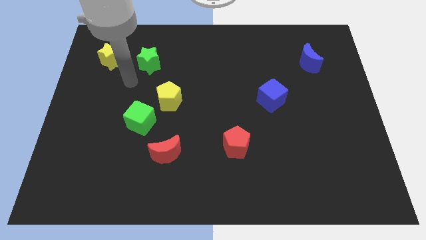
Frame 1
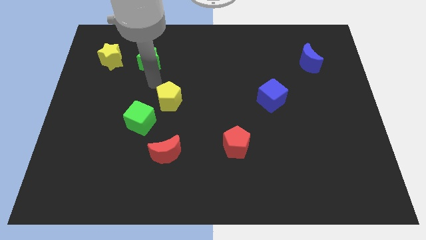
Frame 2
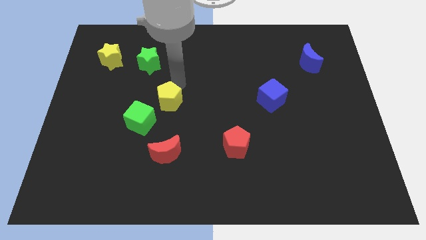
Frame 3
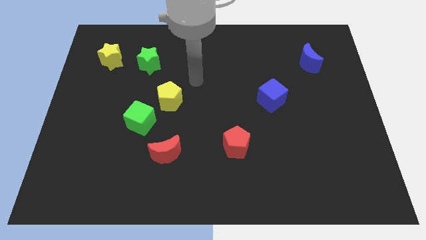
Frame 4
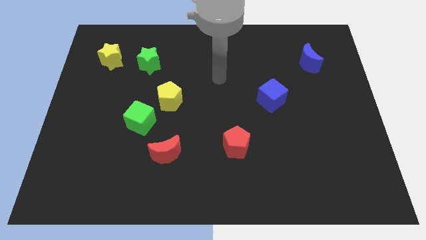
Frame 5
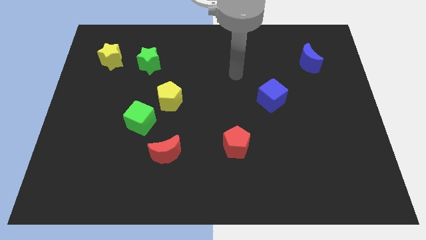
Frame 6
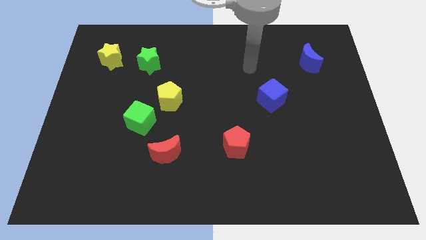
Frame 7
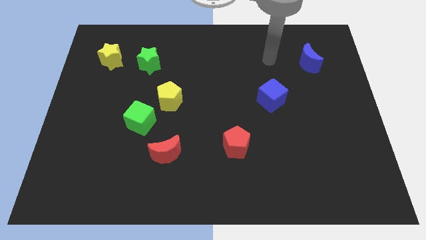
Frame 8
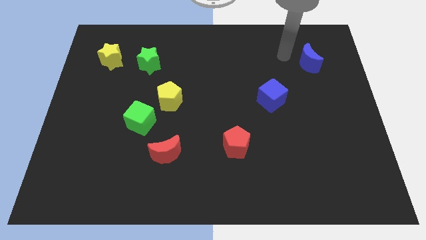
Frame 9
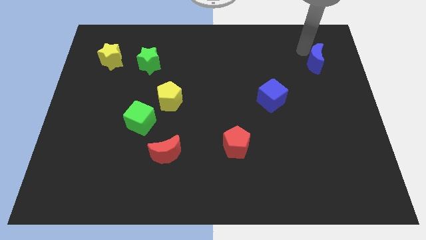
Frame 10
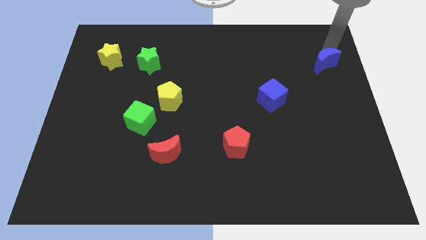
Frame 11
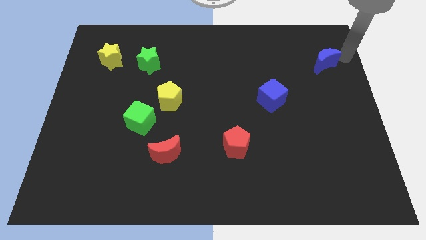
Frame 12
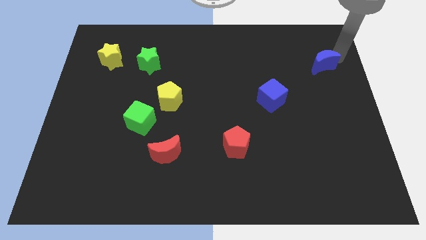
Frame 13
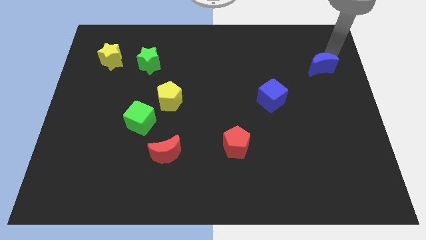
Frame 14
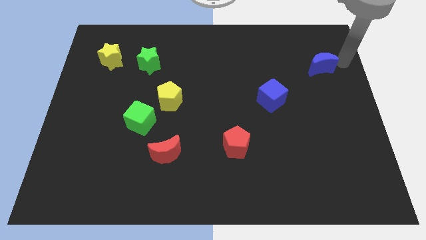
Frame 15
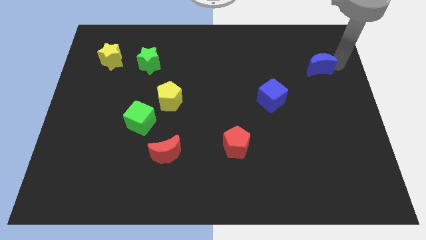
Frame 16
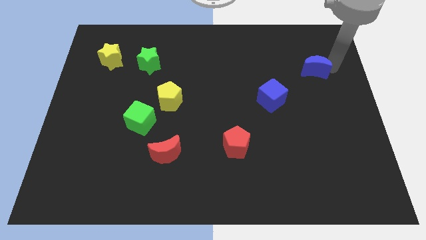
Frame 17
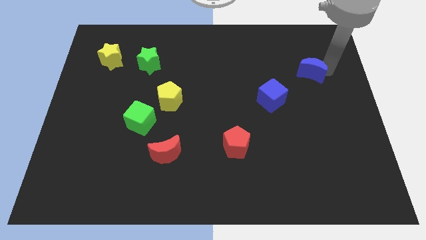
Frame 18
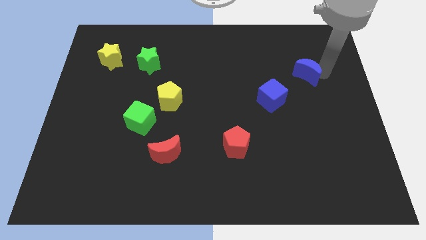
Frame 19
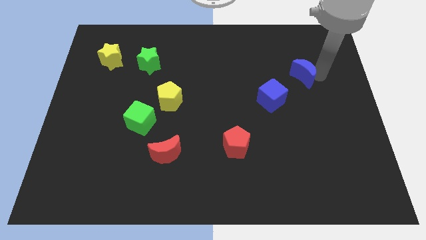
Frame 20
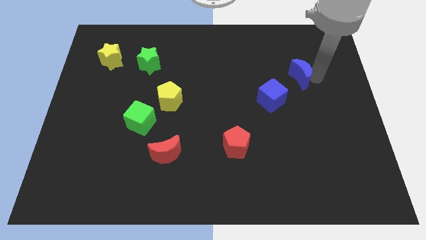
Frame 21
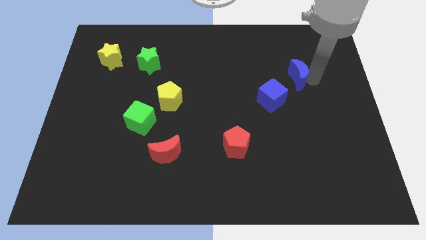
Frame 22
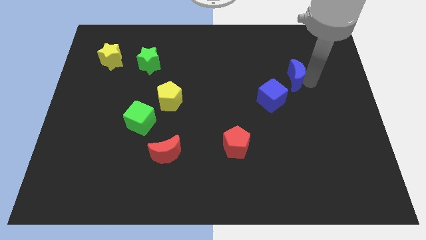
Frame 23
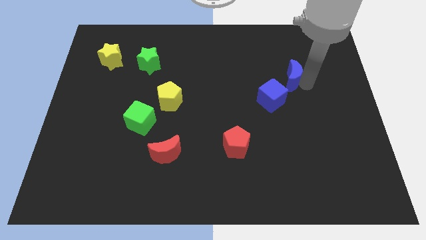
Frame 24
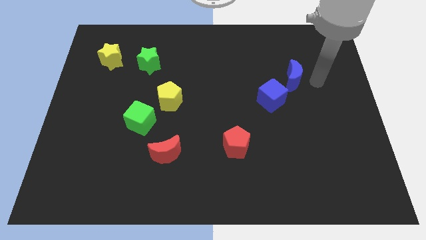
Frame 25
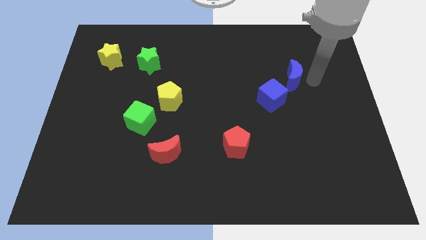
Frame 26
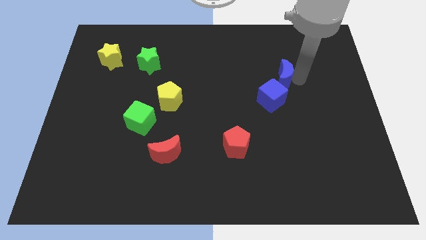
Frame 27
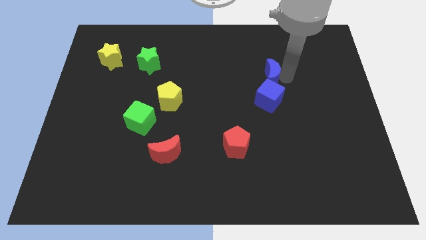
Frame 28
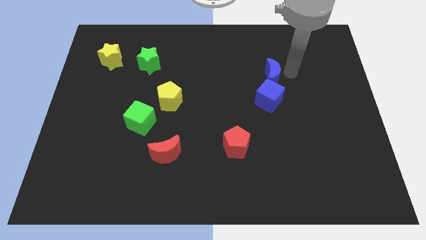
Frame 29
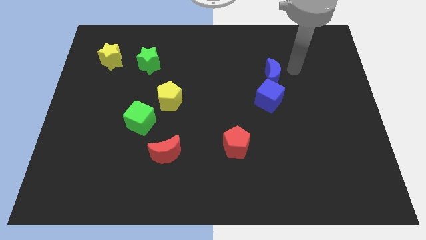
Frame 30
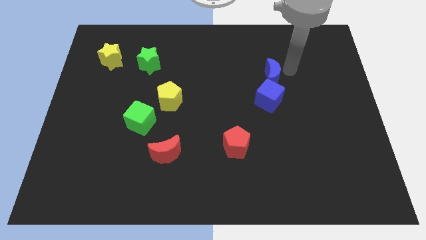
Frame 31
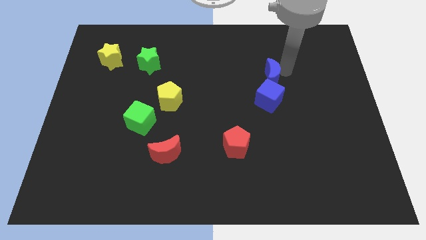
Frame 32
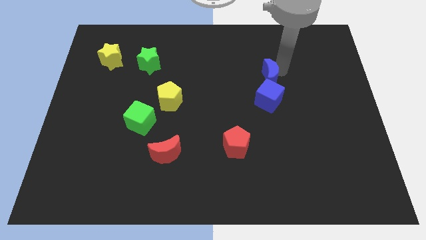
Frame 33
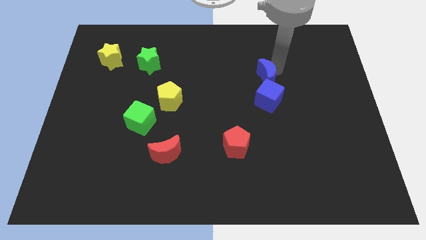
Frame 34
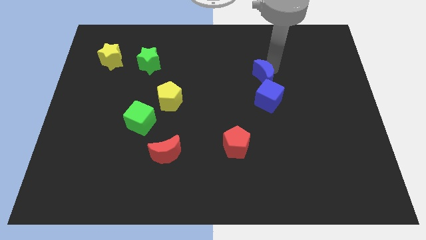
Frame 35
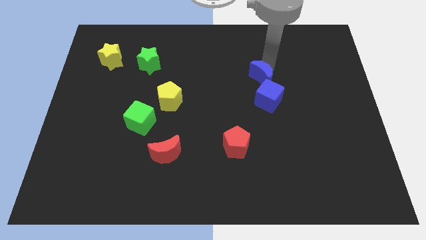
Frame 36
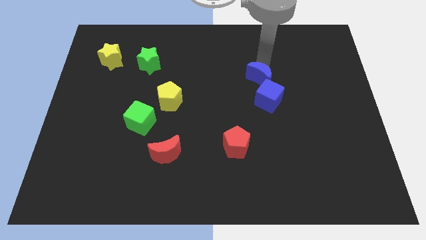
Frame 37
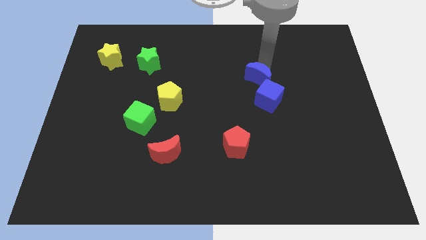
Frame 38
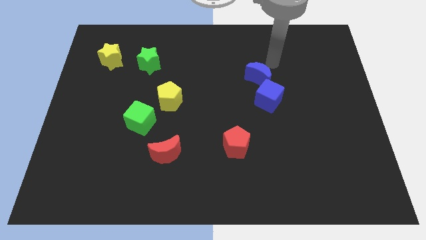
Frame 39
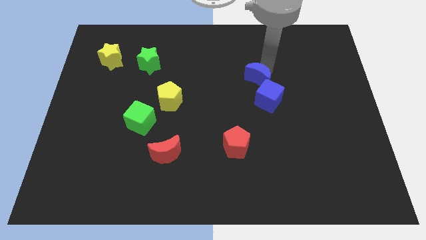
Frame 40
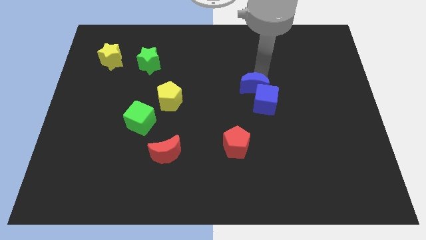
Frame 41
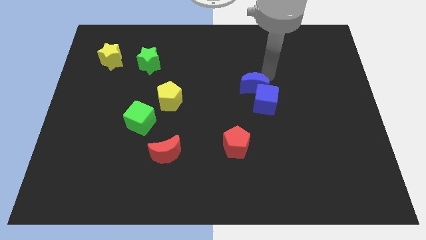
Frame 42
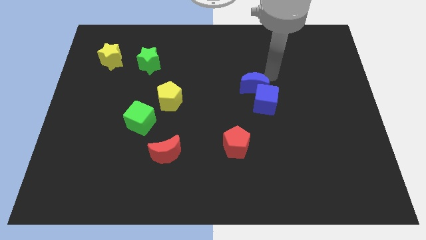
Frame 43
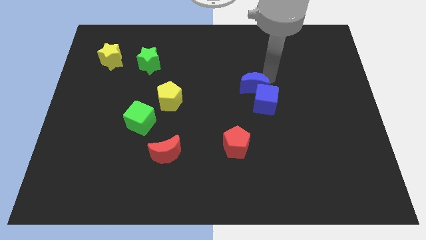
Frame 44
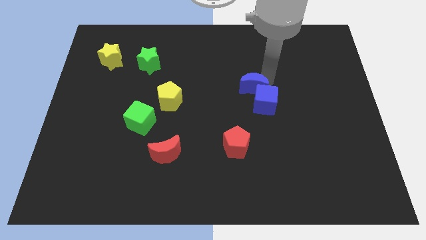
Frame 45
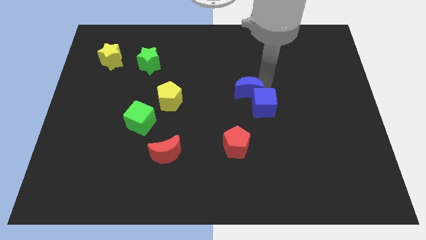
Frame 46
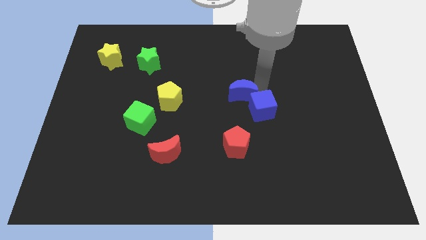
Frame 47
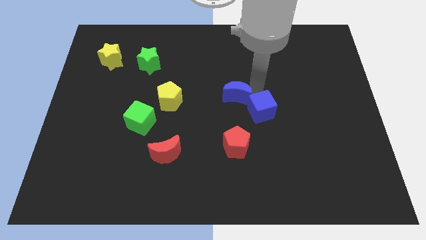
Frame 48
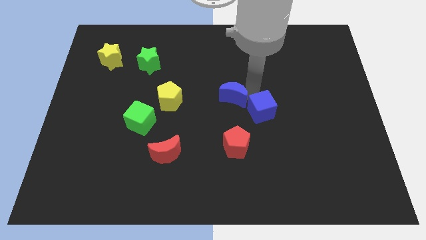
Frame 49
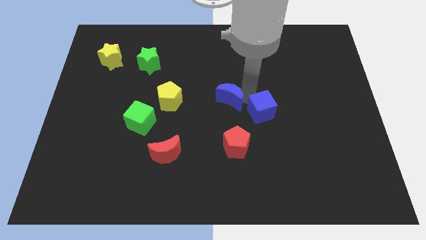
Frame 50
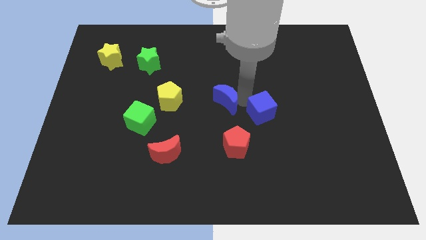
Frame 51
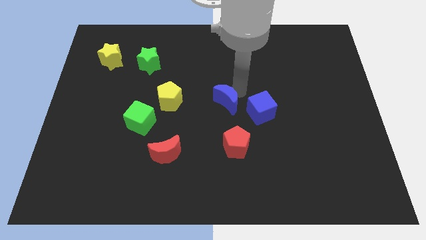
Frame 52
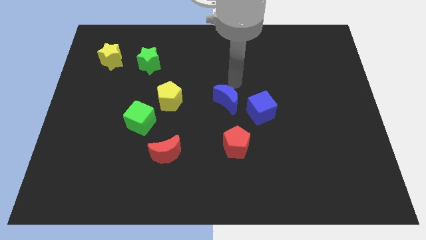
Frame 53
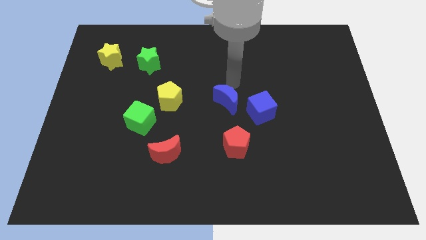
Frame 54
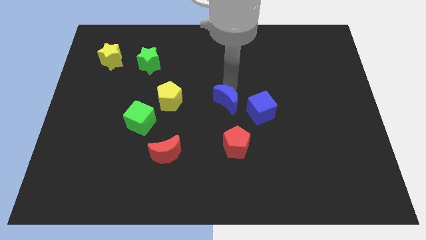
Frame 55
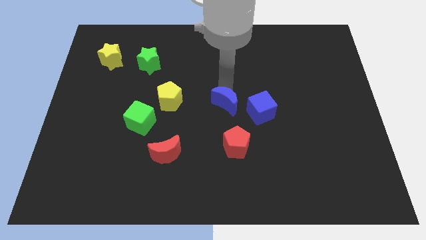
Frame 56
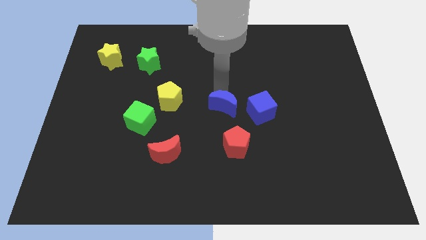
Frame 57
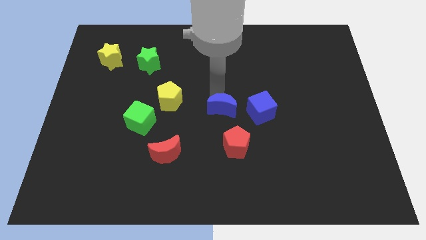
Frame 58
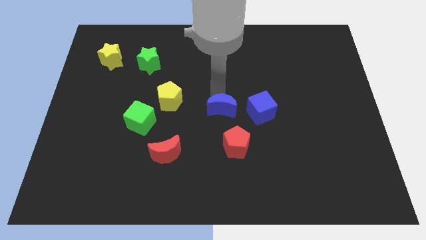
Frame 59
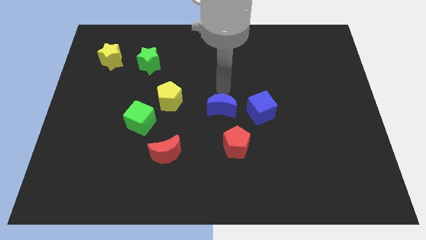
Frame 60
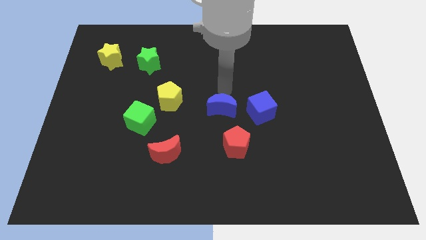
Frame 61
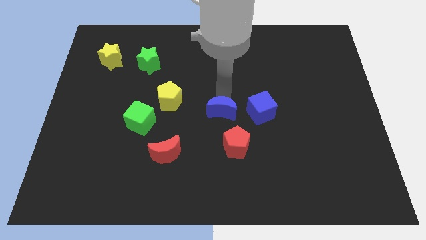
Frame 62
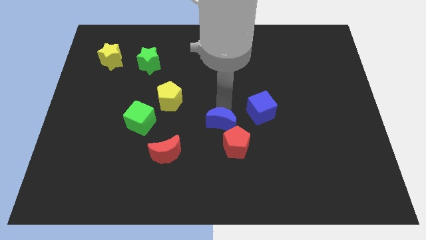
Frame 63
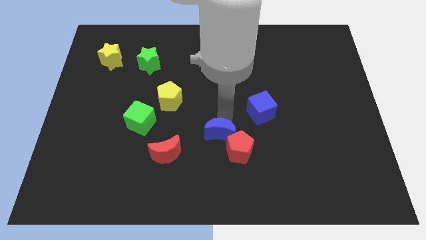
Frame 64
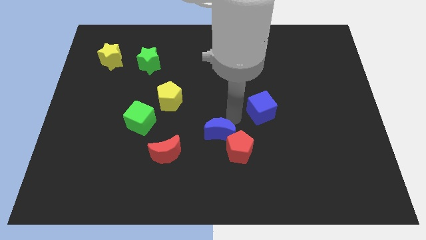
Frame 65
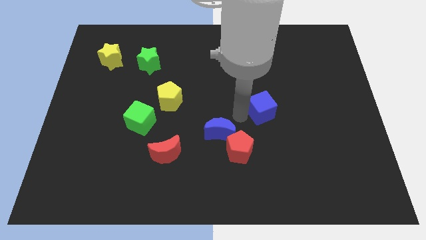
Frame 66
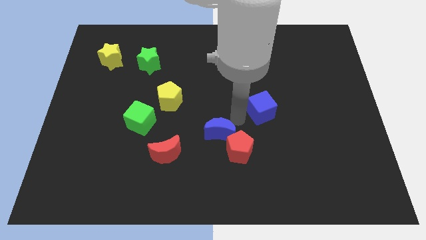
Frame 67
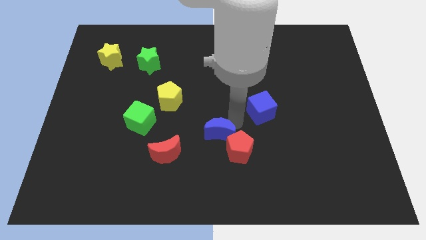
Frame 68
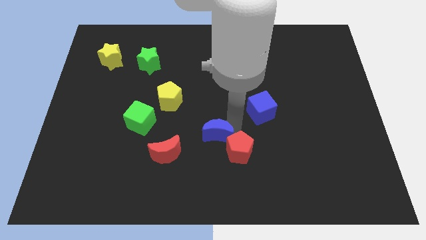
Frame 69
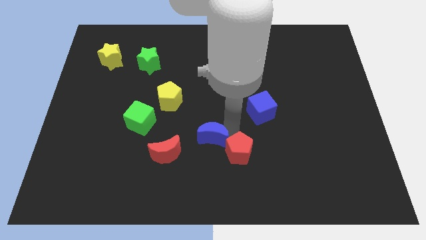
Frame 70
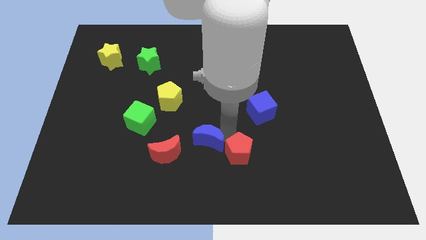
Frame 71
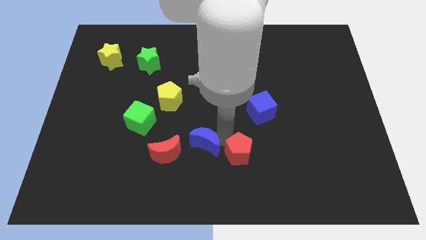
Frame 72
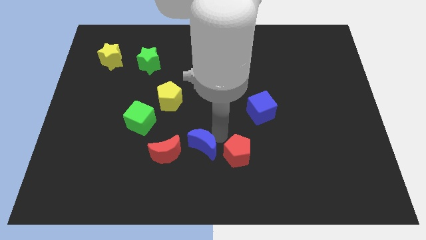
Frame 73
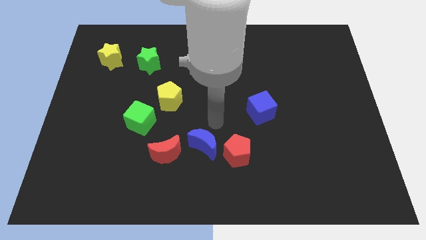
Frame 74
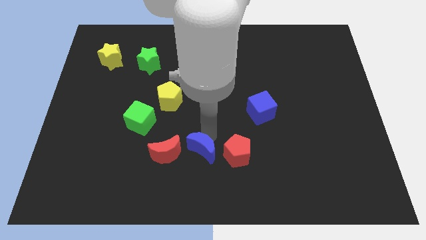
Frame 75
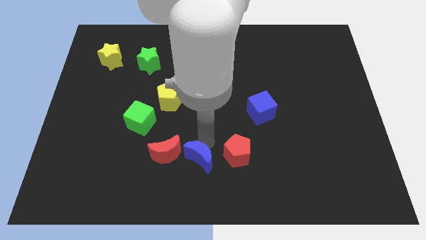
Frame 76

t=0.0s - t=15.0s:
slide the blue moon to the bottom right side of the red moon

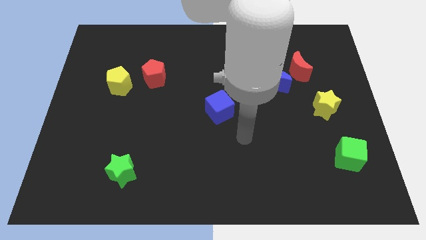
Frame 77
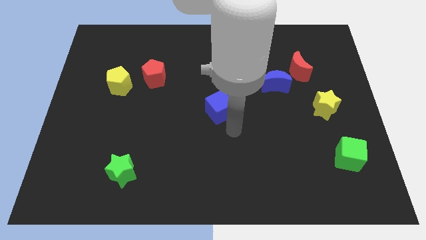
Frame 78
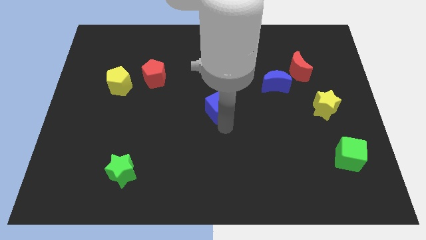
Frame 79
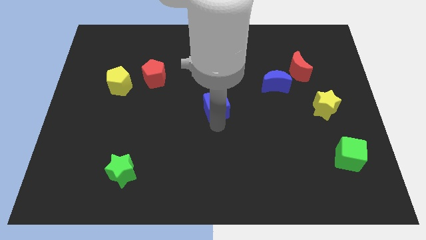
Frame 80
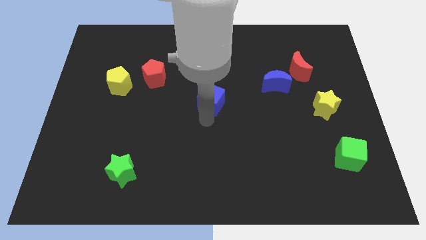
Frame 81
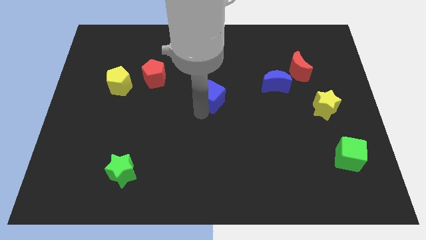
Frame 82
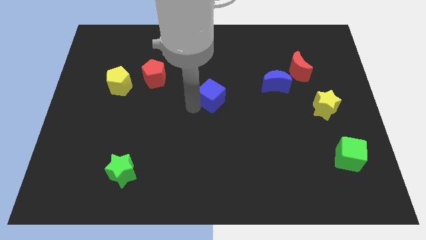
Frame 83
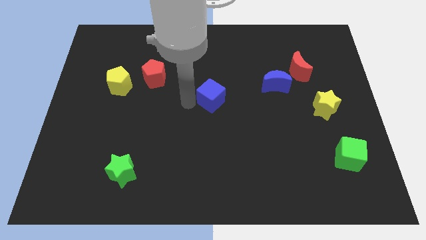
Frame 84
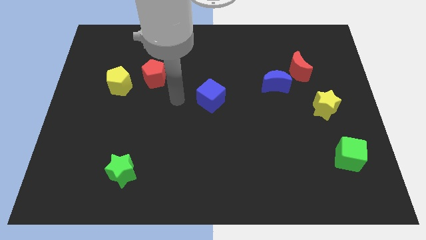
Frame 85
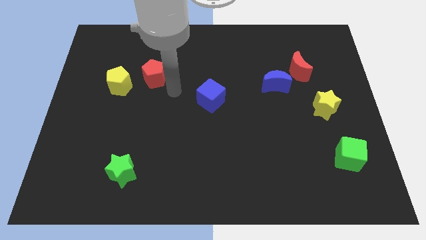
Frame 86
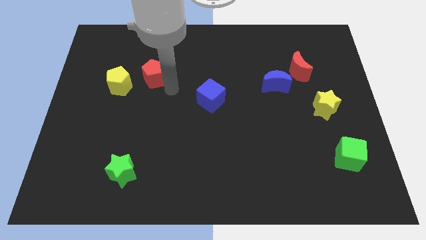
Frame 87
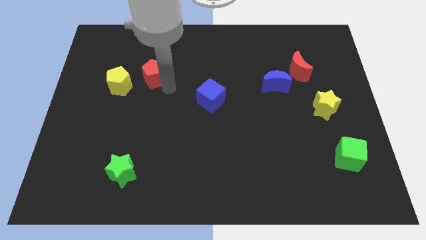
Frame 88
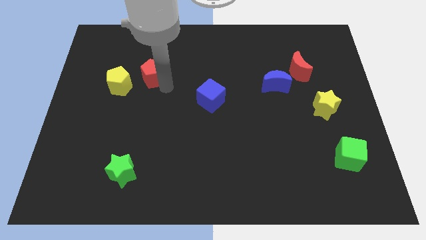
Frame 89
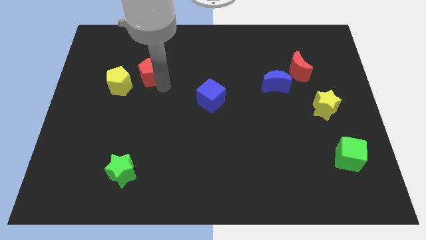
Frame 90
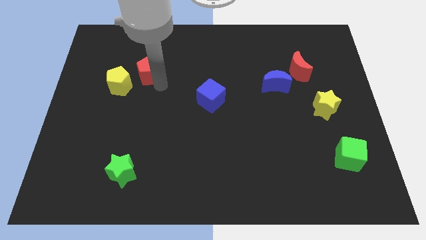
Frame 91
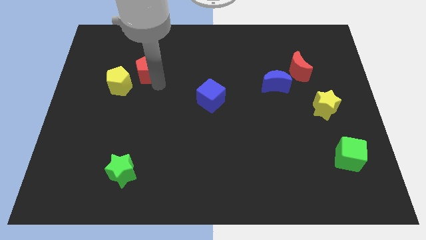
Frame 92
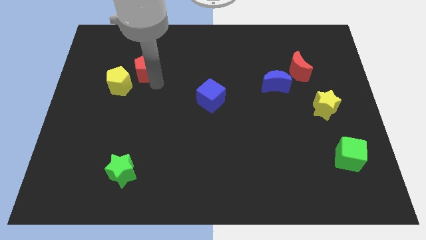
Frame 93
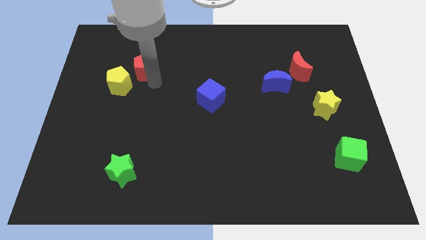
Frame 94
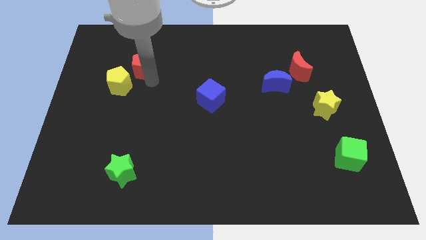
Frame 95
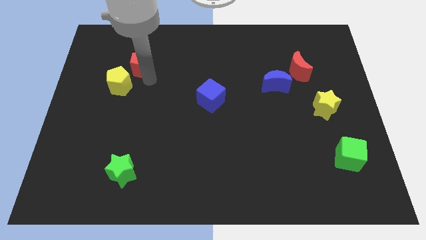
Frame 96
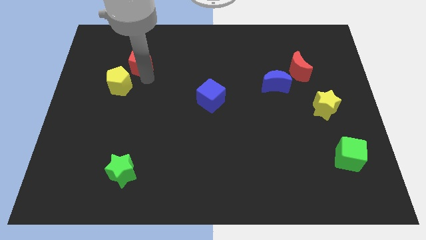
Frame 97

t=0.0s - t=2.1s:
move the red pentagon above the yellow pentagon
